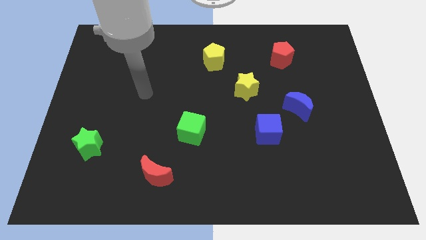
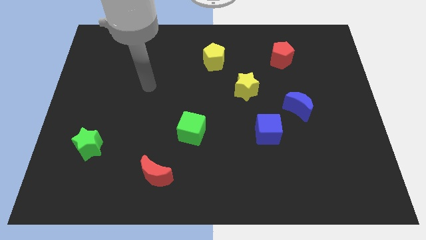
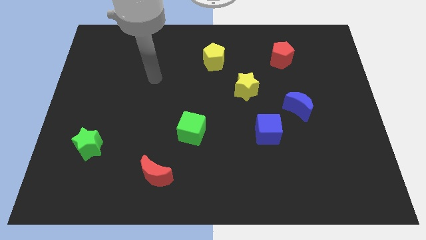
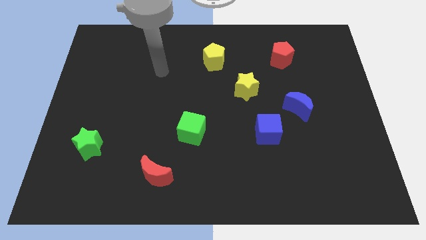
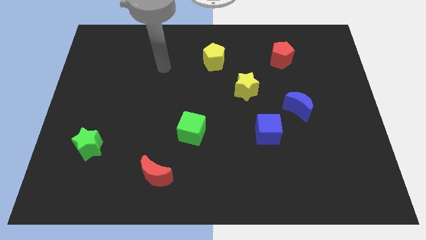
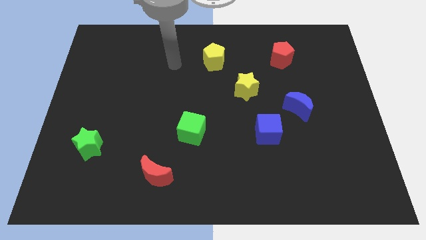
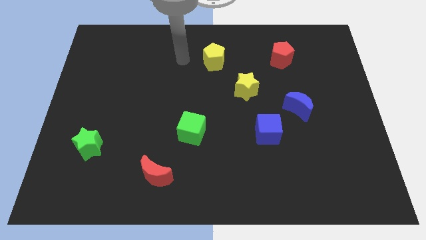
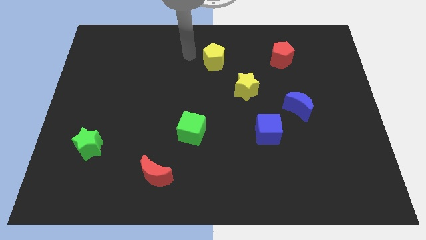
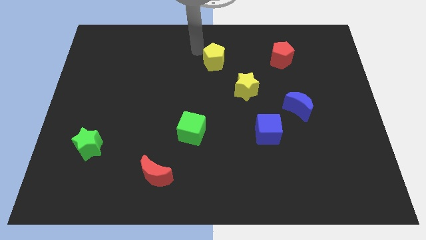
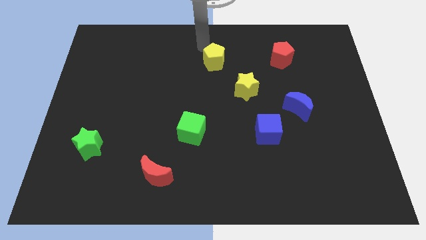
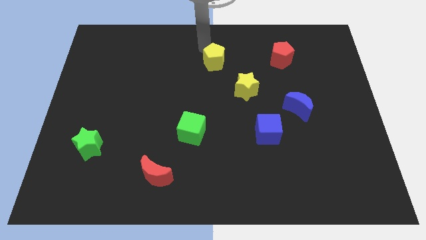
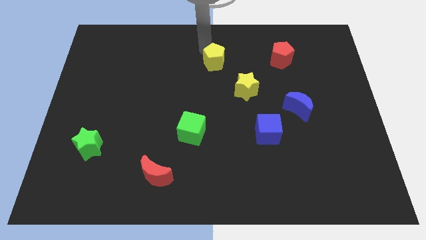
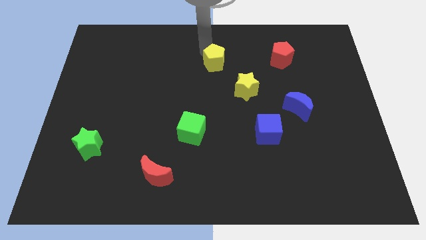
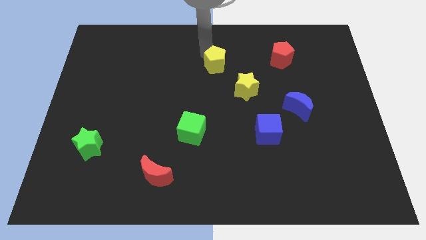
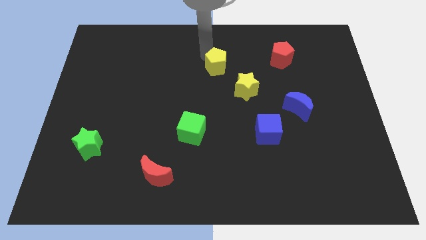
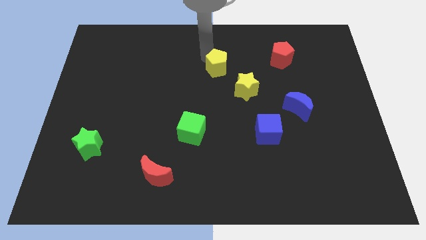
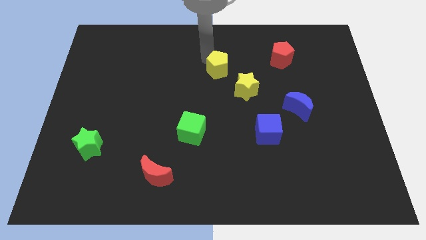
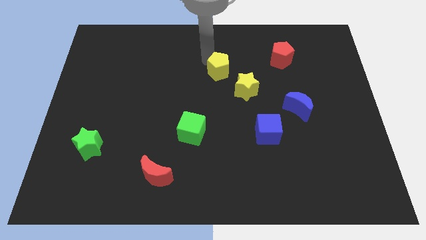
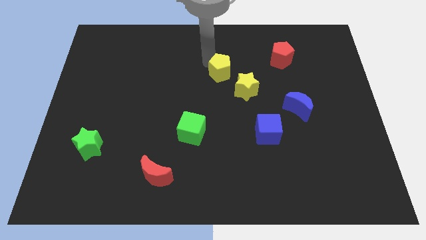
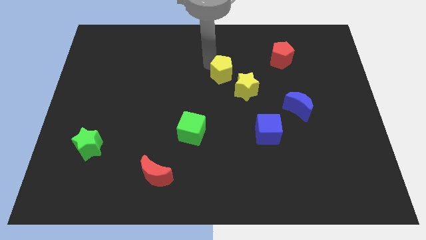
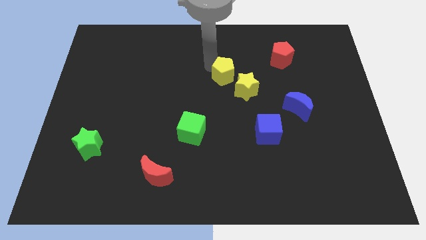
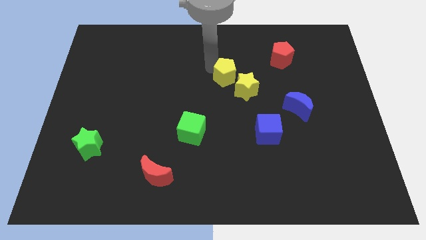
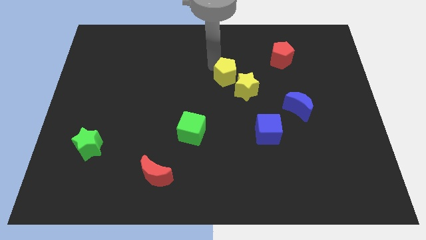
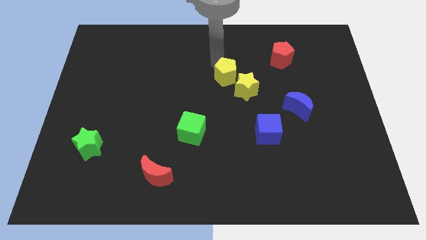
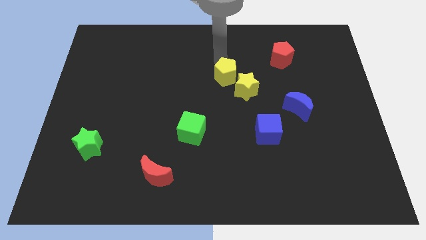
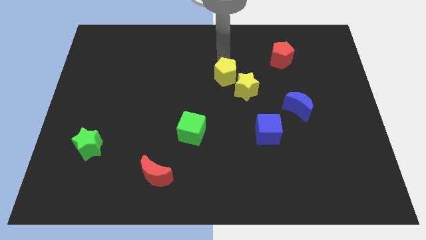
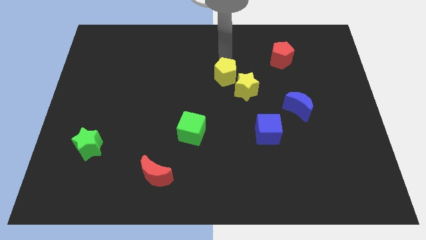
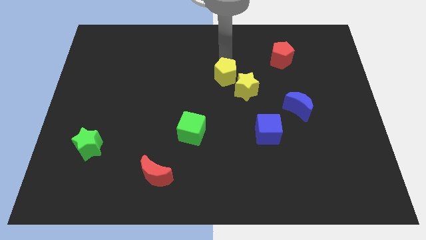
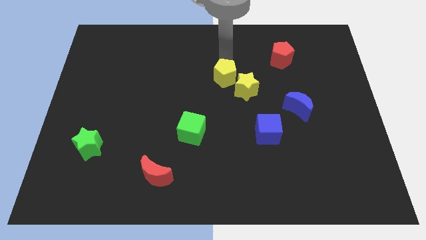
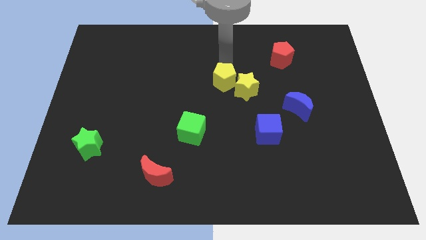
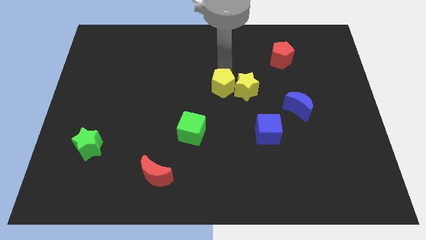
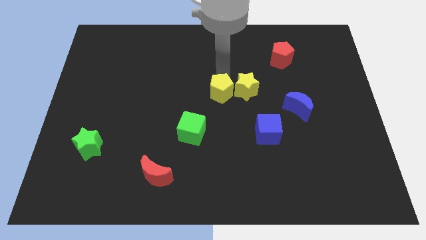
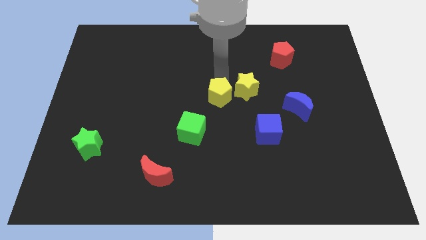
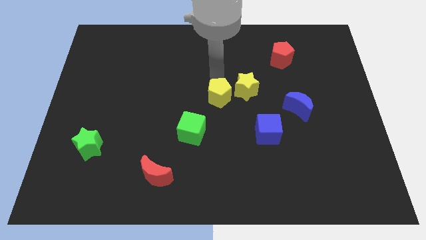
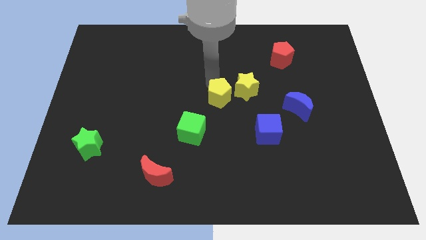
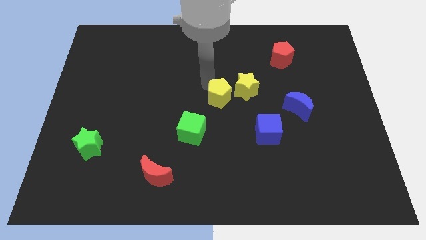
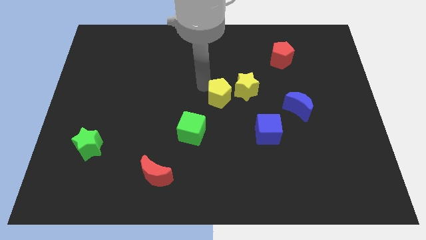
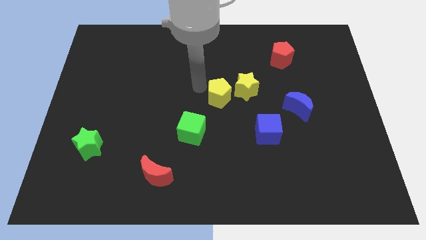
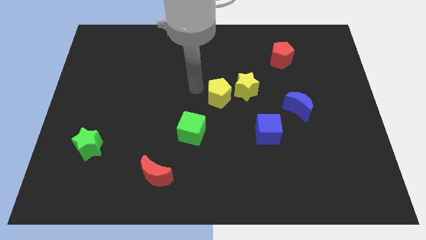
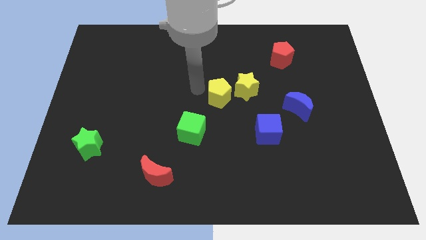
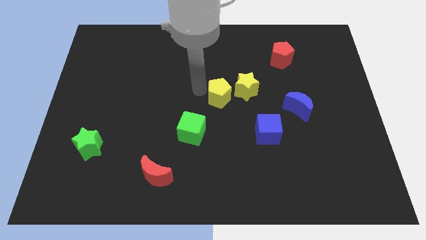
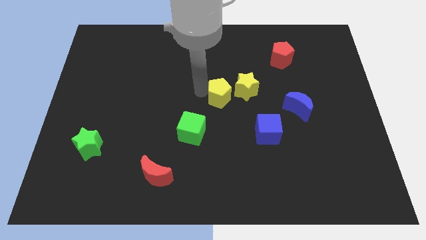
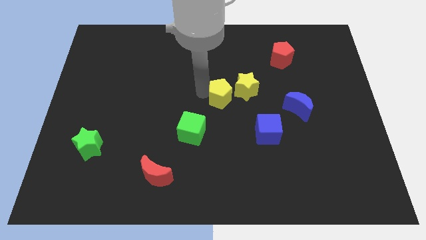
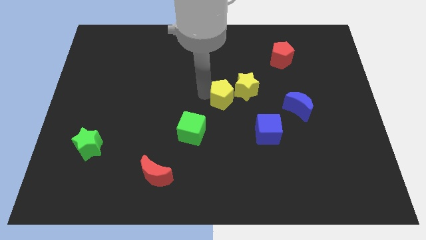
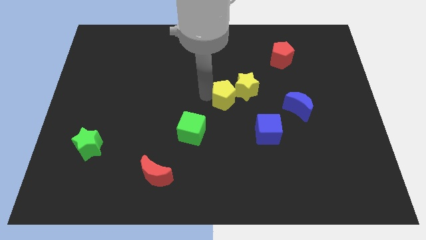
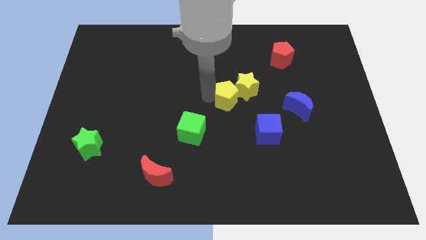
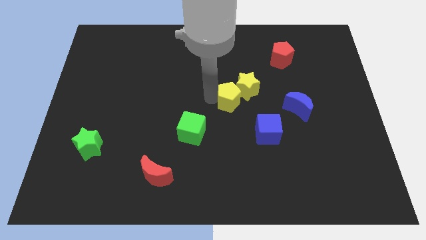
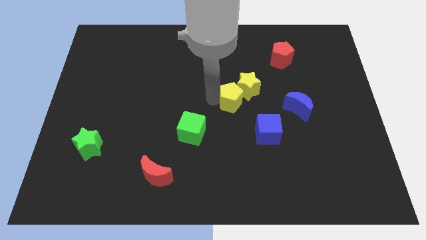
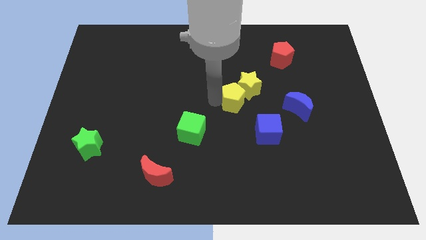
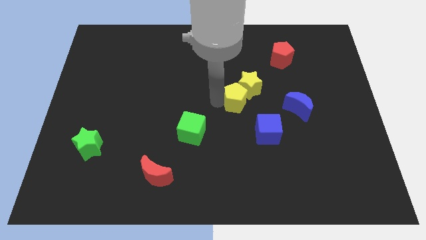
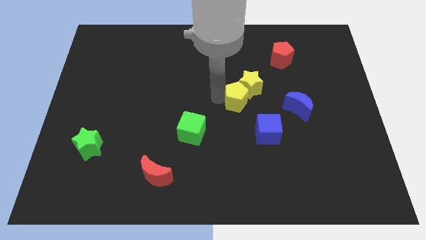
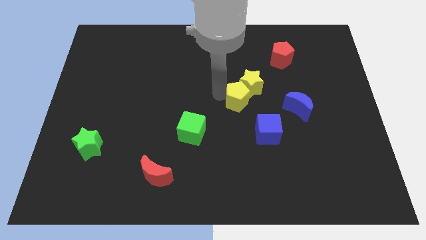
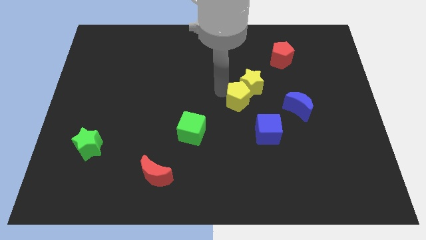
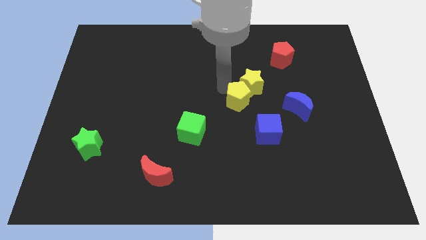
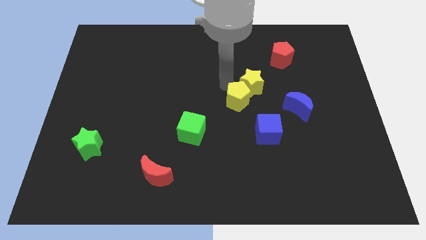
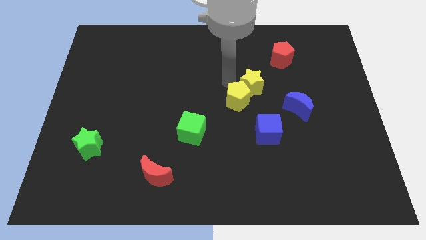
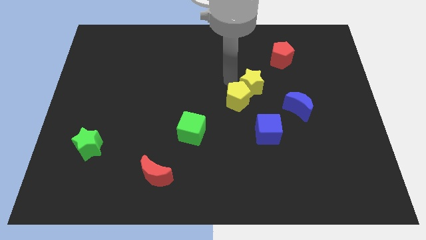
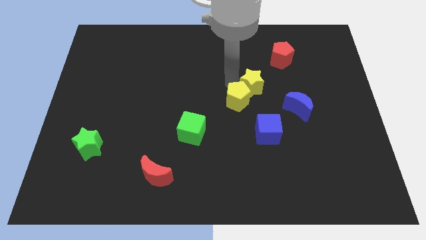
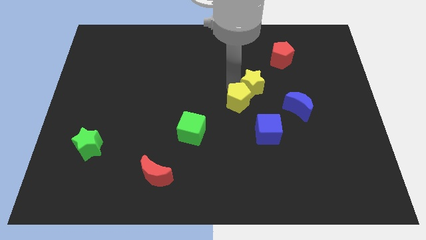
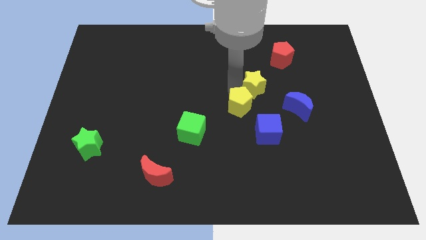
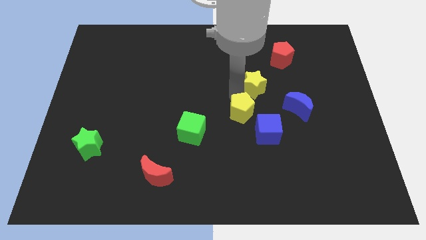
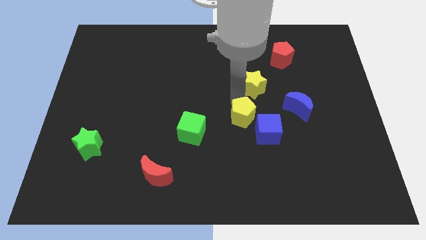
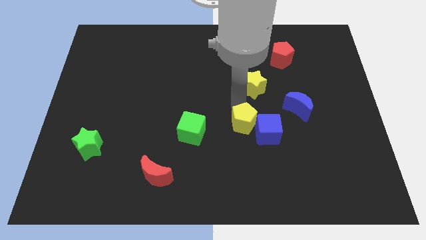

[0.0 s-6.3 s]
put the yellow pentagon close to the blue cube

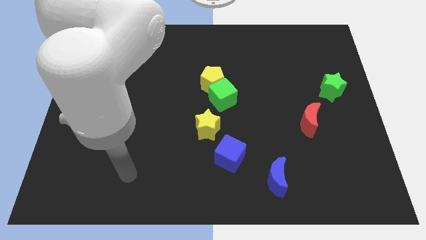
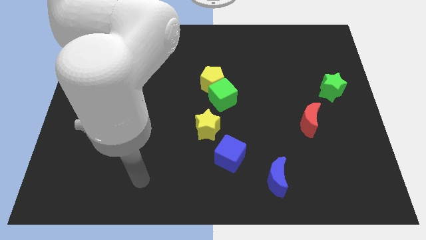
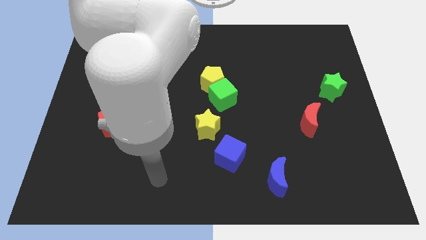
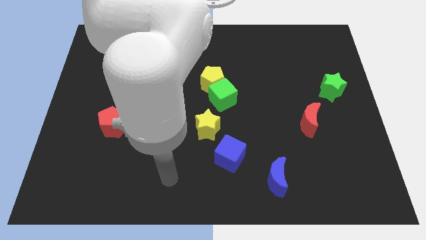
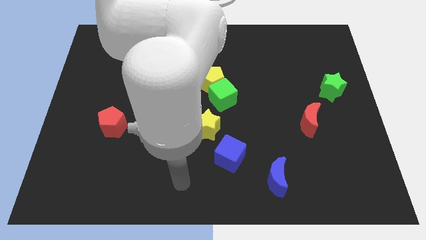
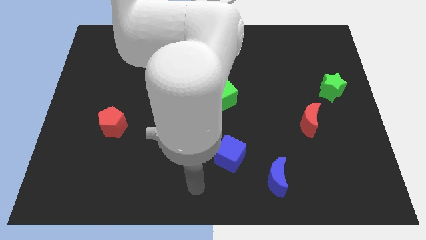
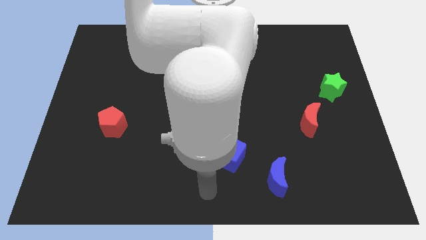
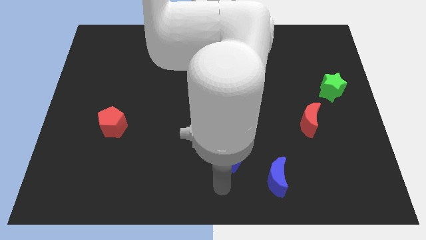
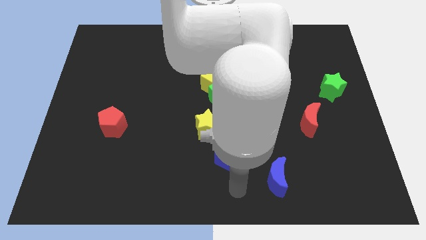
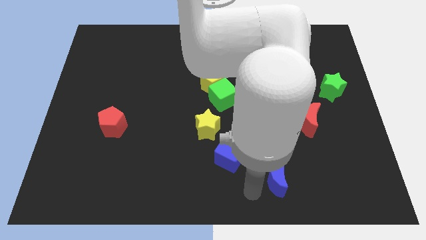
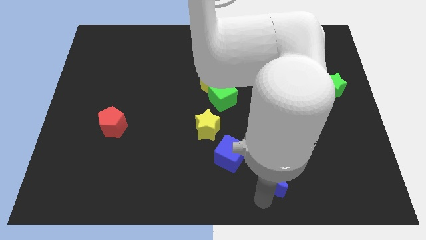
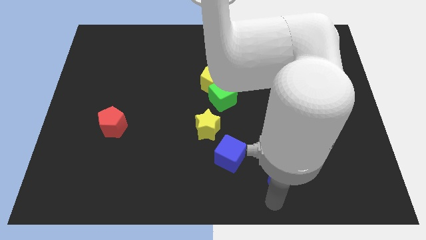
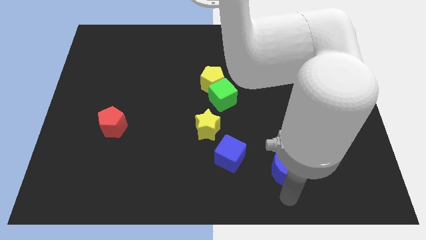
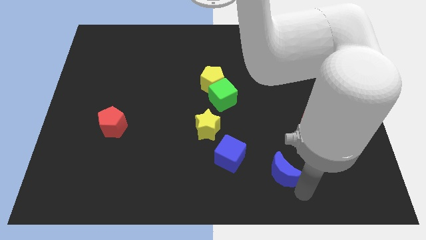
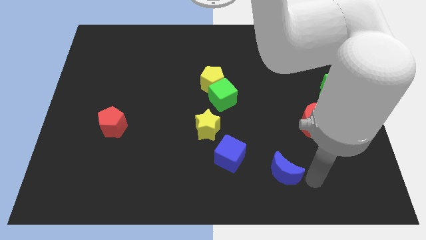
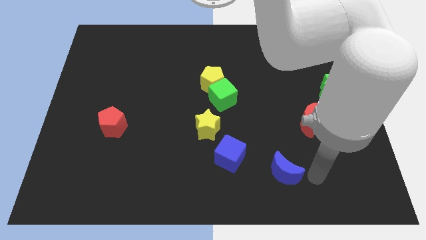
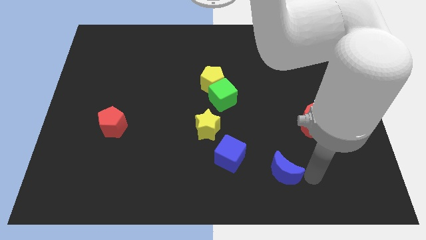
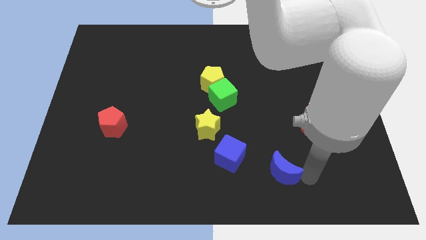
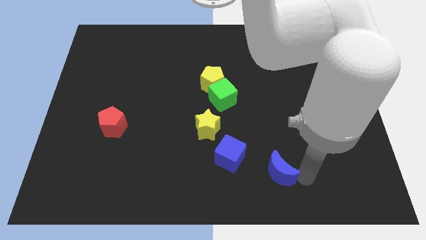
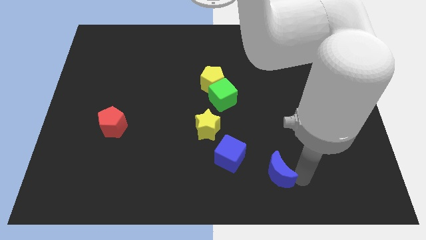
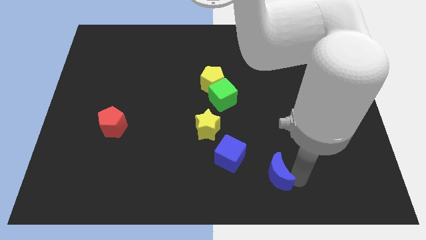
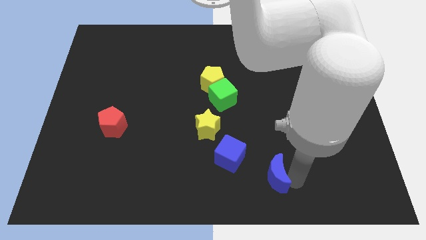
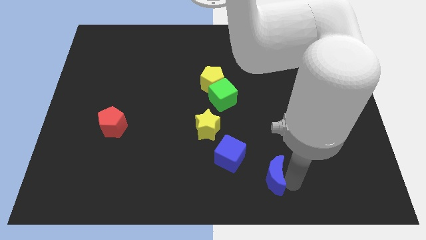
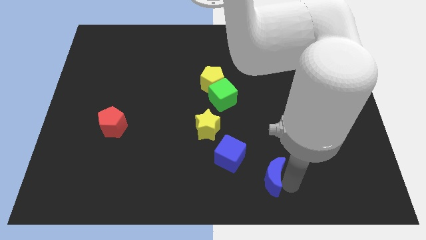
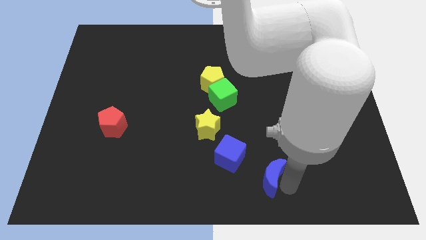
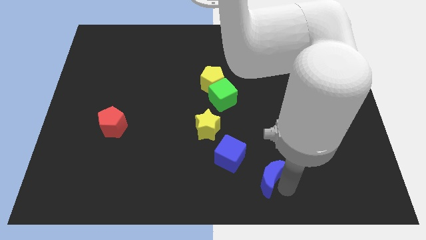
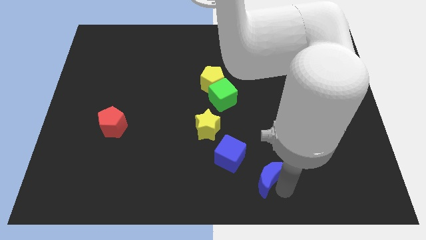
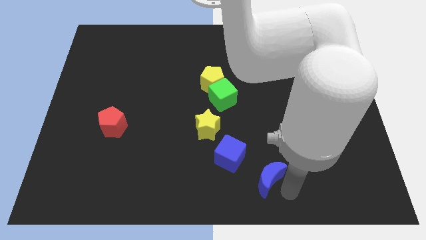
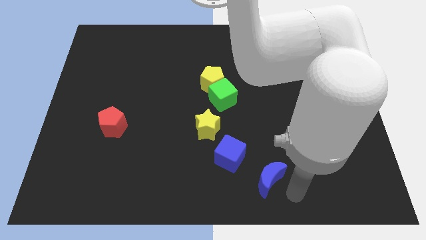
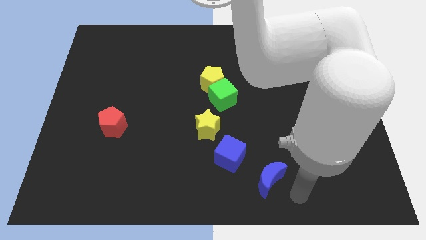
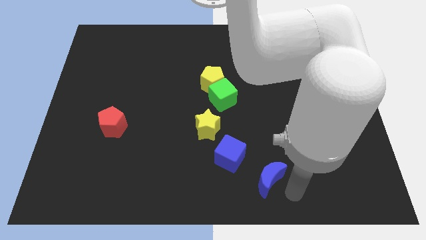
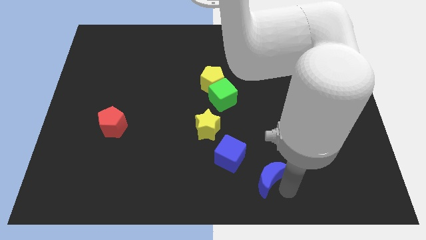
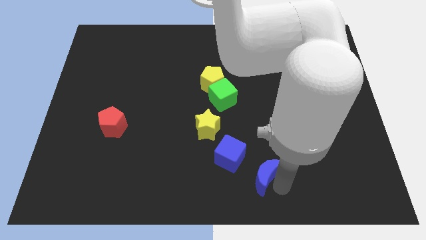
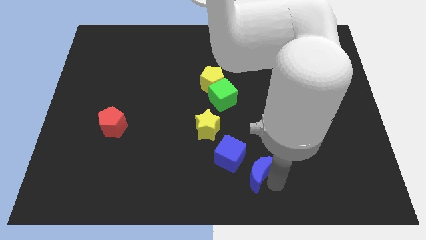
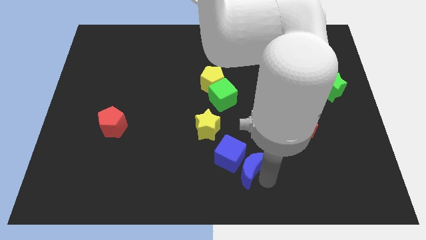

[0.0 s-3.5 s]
move the blue moon next to the blue cube
